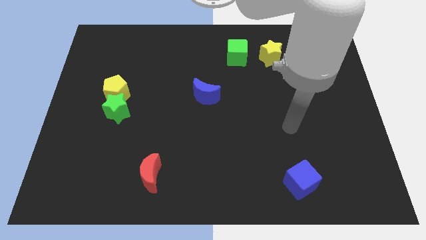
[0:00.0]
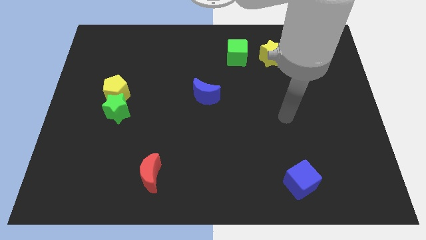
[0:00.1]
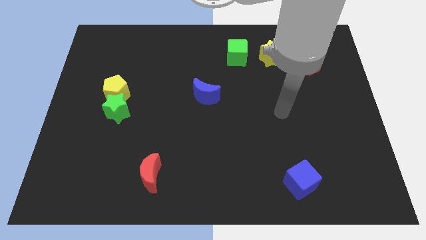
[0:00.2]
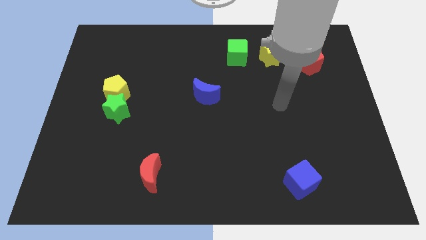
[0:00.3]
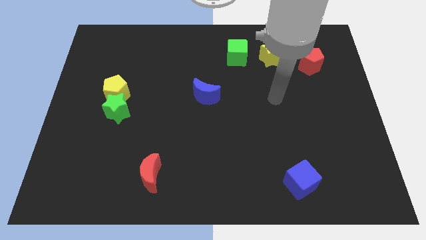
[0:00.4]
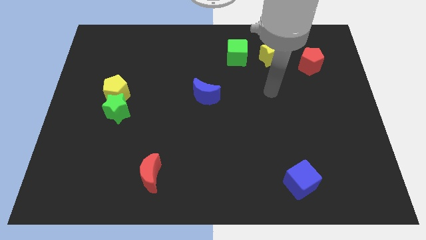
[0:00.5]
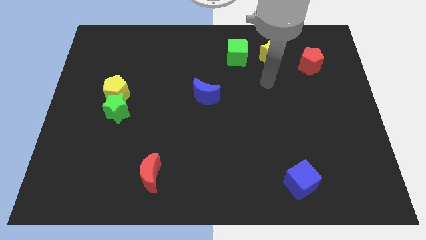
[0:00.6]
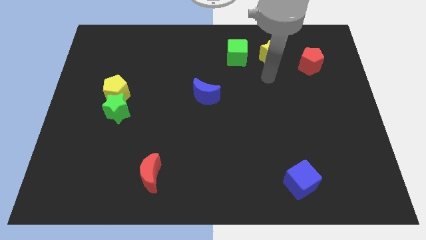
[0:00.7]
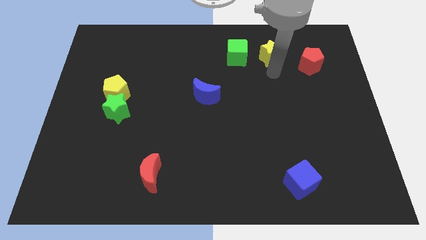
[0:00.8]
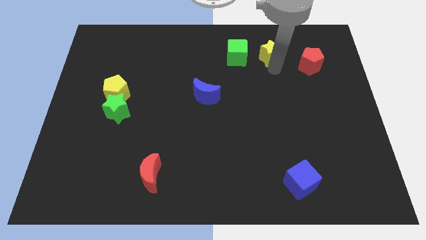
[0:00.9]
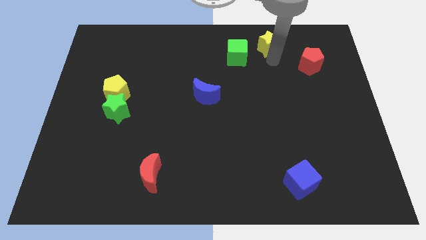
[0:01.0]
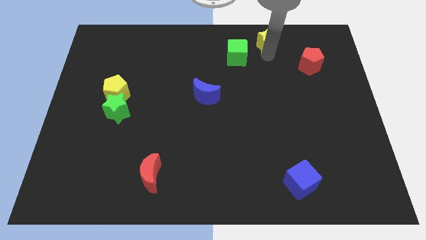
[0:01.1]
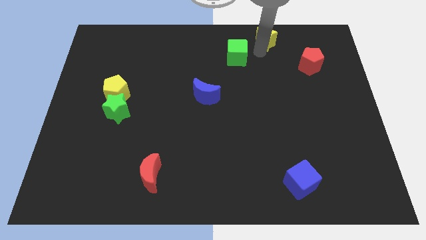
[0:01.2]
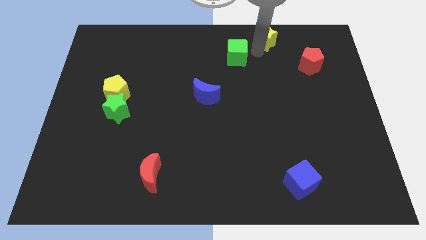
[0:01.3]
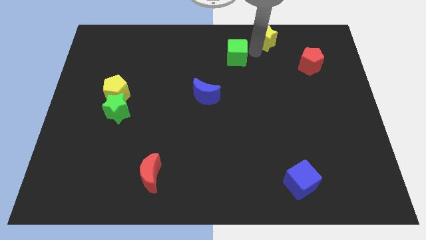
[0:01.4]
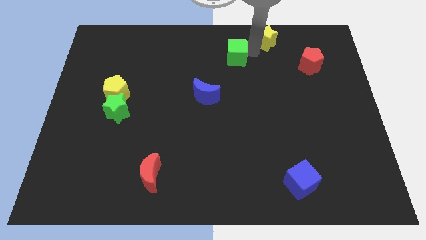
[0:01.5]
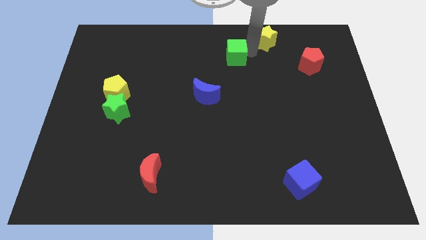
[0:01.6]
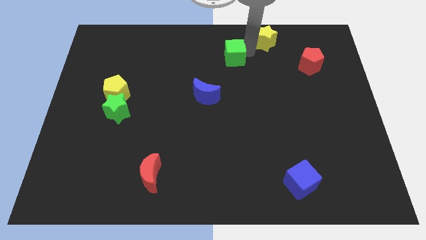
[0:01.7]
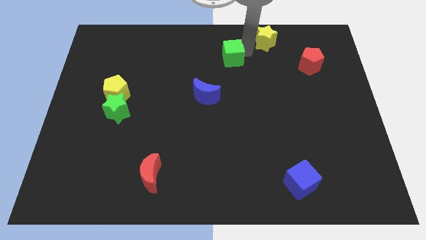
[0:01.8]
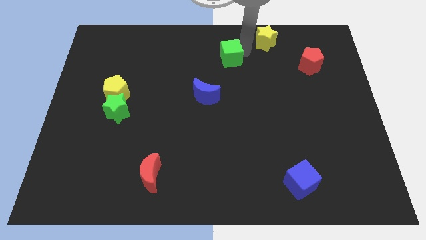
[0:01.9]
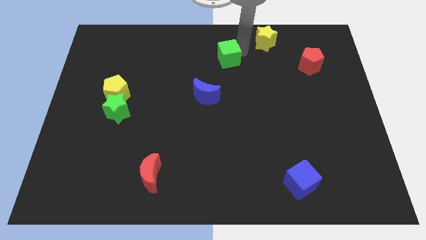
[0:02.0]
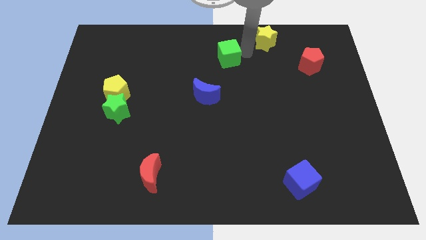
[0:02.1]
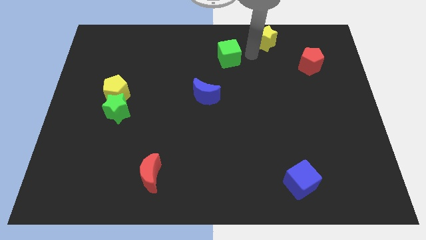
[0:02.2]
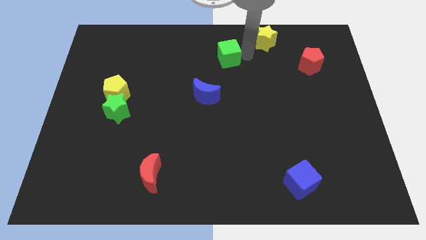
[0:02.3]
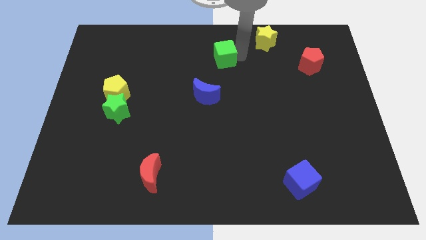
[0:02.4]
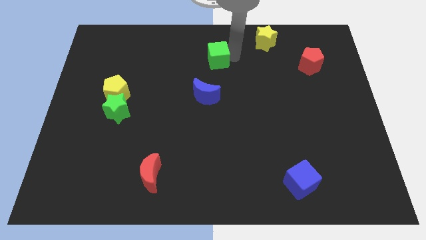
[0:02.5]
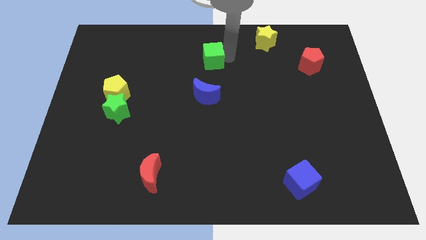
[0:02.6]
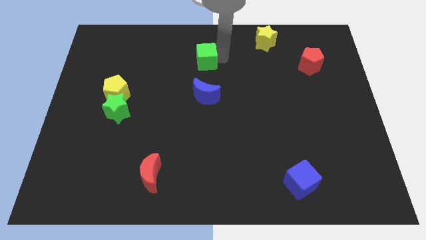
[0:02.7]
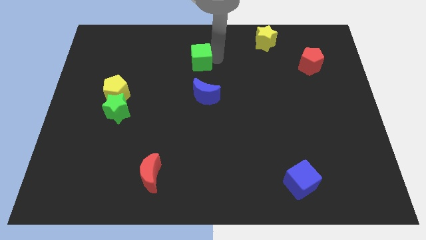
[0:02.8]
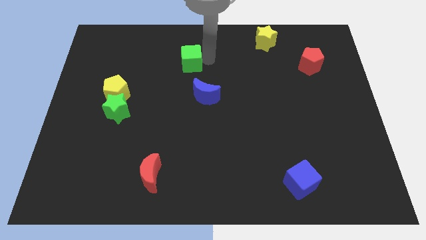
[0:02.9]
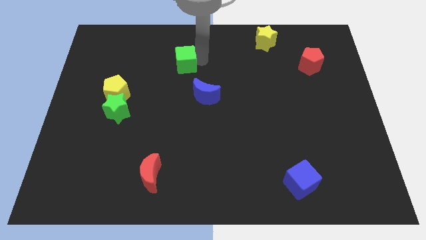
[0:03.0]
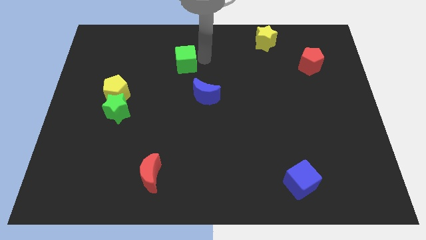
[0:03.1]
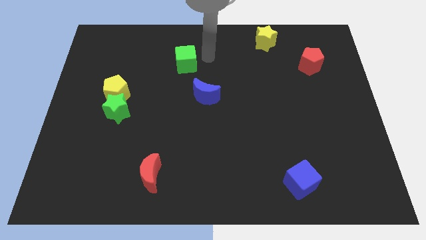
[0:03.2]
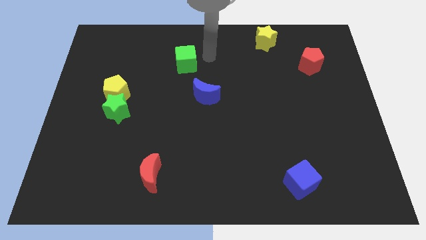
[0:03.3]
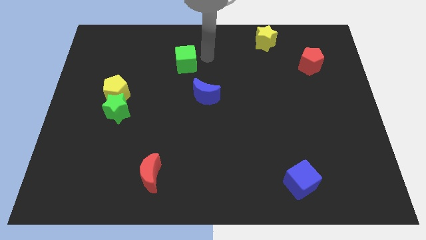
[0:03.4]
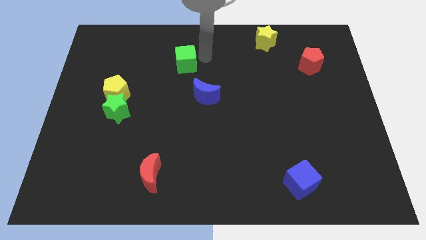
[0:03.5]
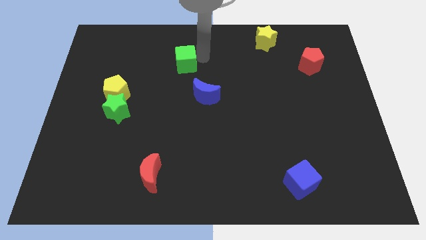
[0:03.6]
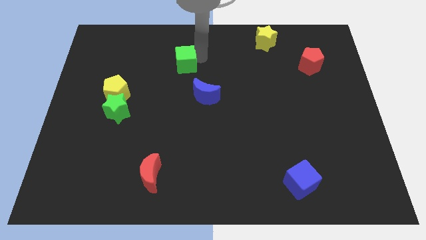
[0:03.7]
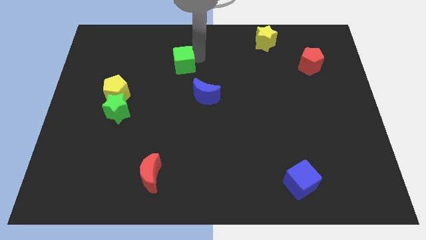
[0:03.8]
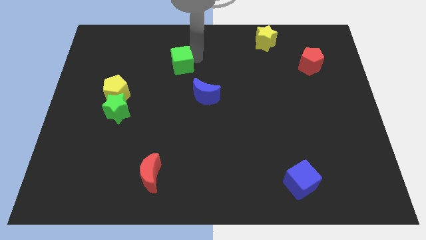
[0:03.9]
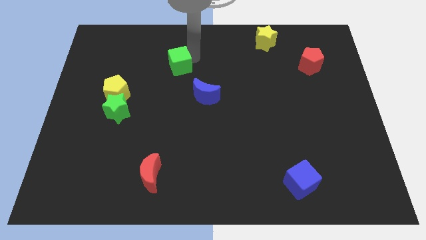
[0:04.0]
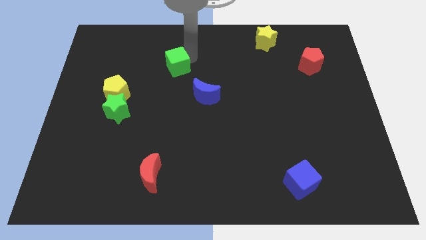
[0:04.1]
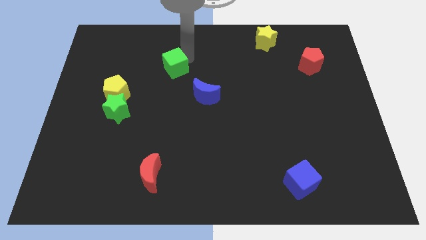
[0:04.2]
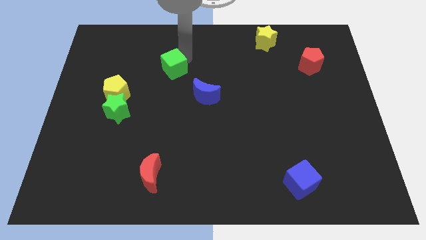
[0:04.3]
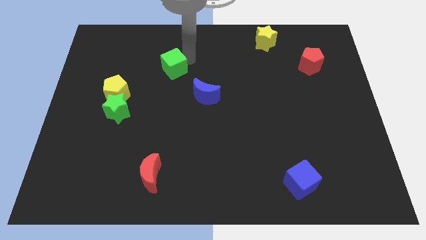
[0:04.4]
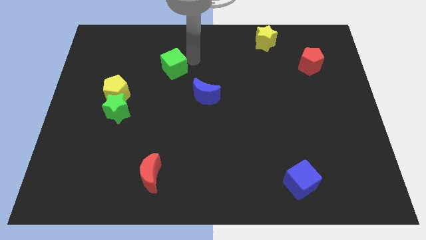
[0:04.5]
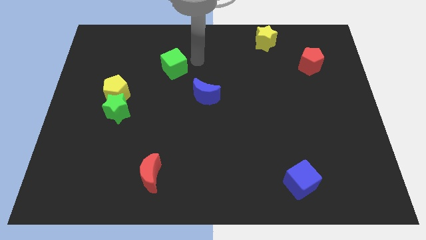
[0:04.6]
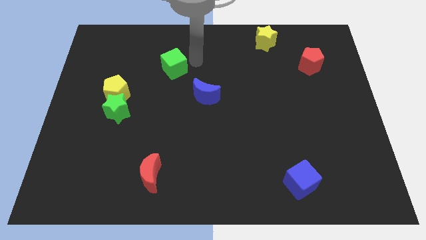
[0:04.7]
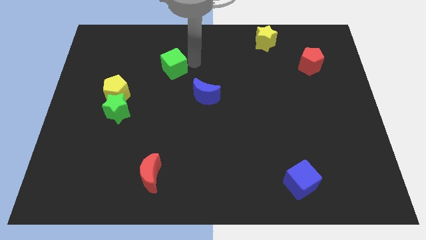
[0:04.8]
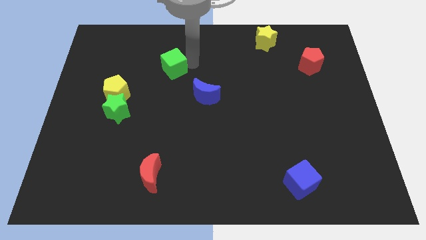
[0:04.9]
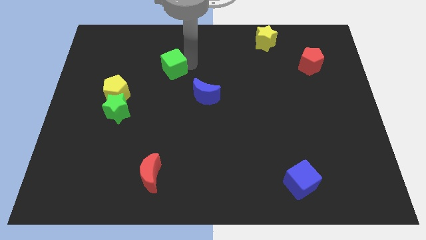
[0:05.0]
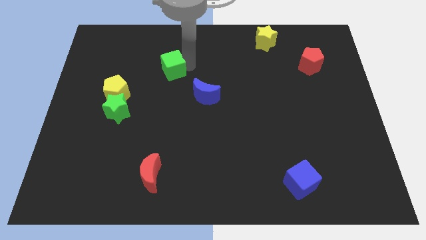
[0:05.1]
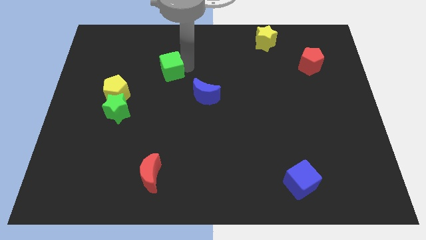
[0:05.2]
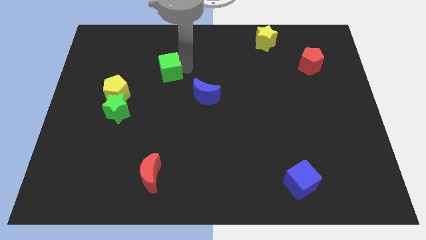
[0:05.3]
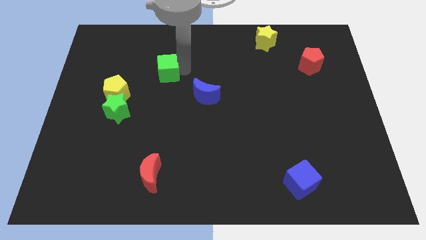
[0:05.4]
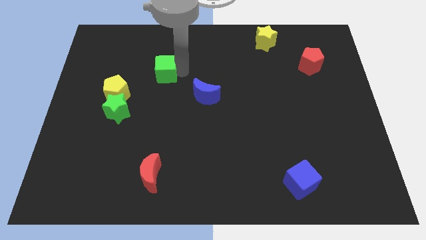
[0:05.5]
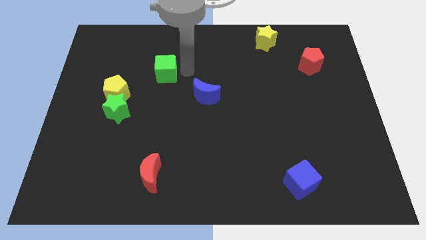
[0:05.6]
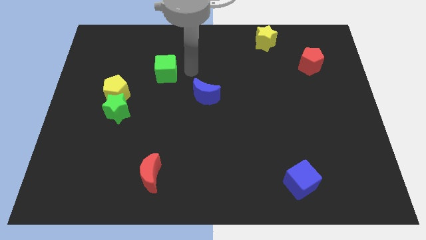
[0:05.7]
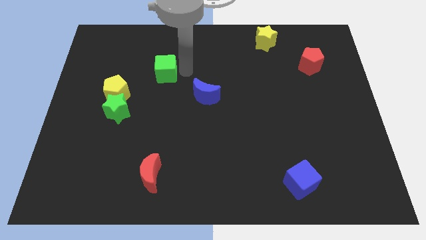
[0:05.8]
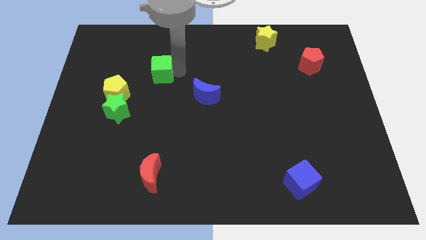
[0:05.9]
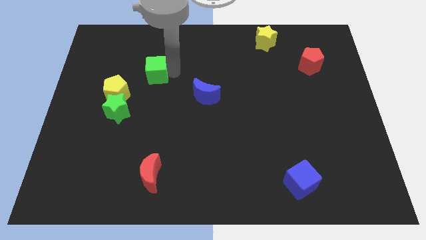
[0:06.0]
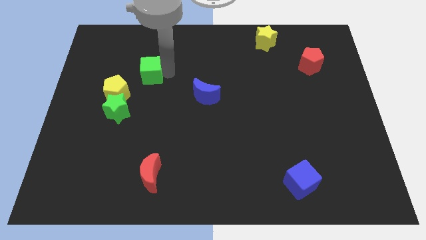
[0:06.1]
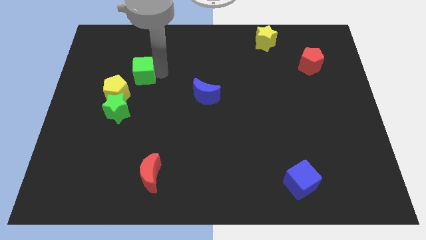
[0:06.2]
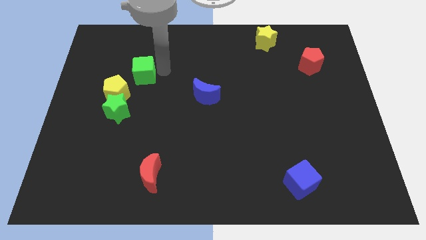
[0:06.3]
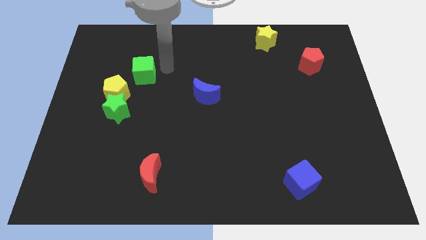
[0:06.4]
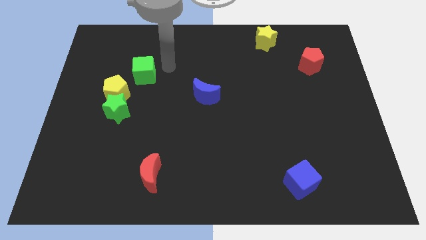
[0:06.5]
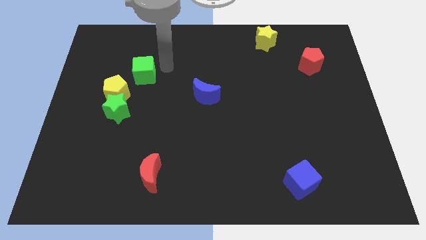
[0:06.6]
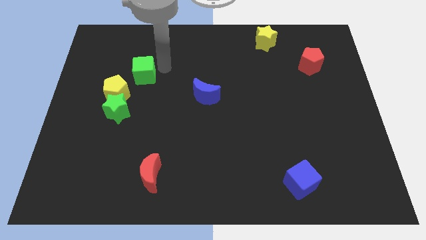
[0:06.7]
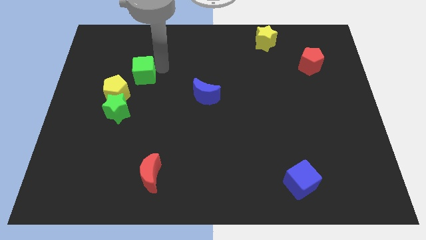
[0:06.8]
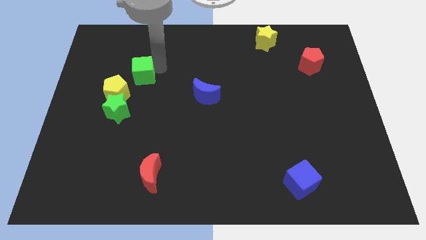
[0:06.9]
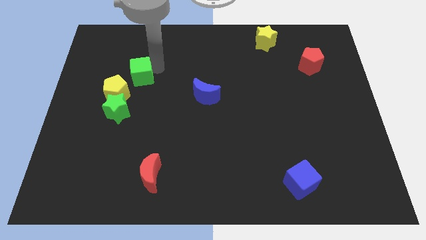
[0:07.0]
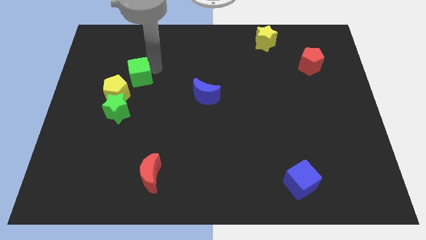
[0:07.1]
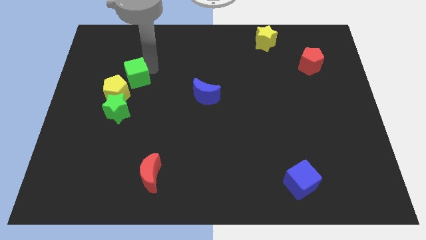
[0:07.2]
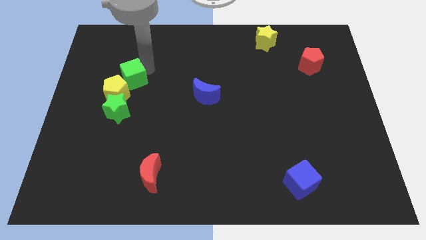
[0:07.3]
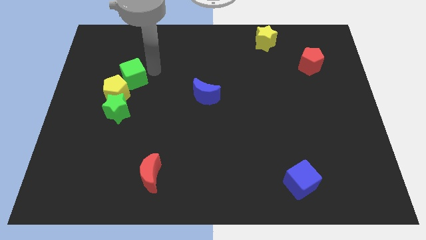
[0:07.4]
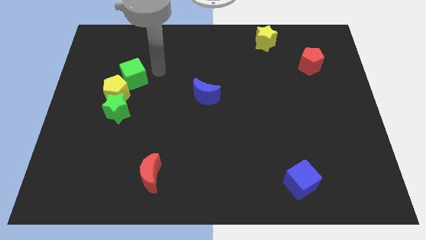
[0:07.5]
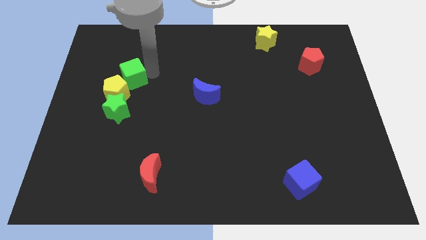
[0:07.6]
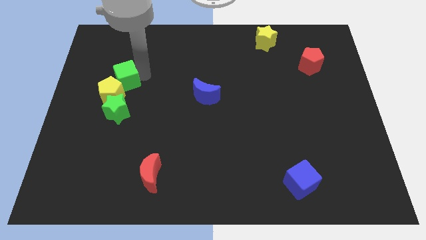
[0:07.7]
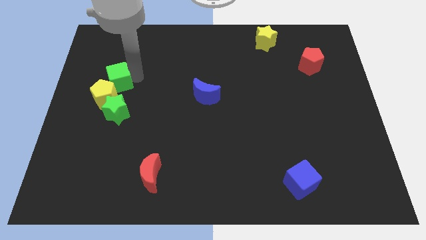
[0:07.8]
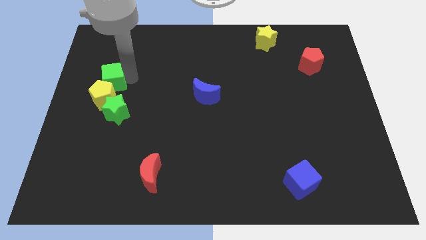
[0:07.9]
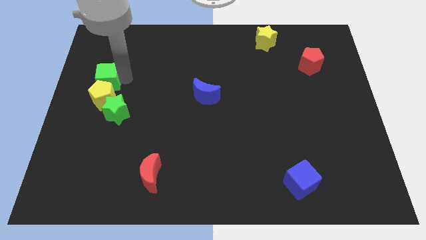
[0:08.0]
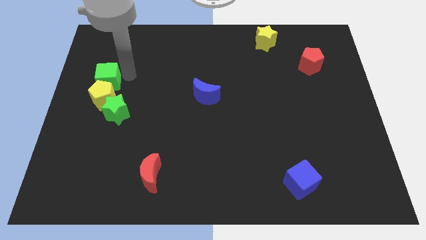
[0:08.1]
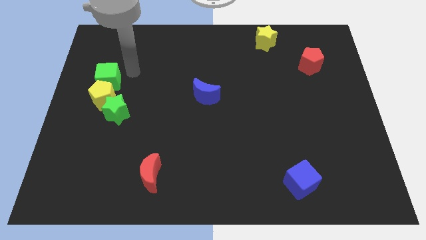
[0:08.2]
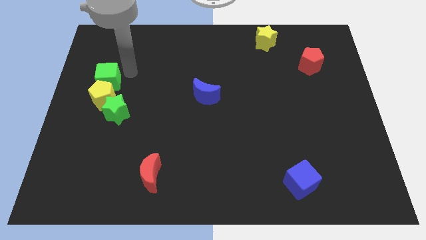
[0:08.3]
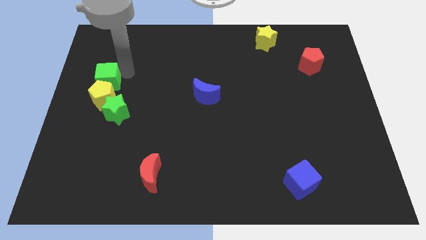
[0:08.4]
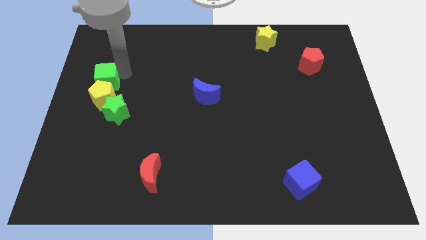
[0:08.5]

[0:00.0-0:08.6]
move the green cube to the left side
